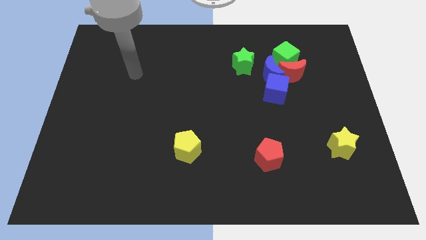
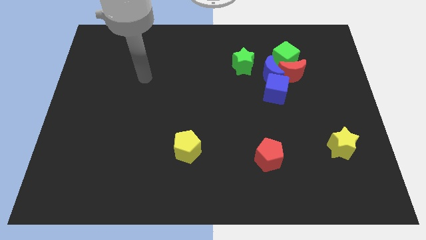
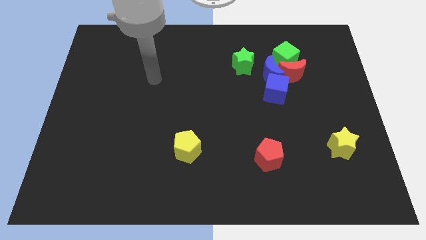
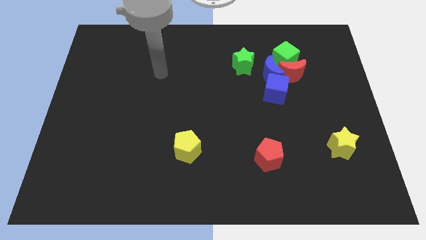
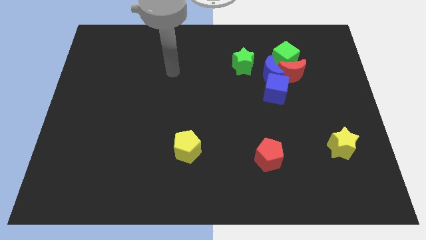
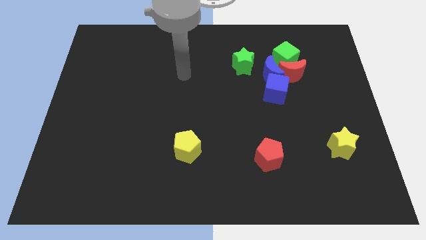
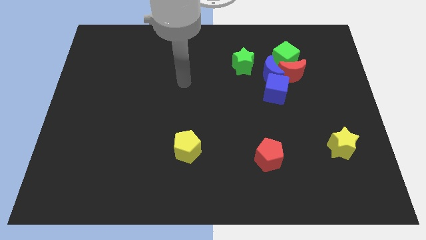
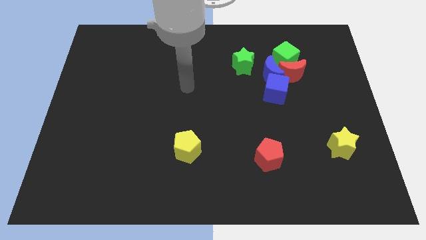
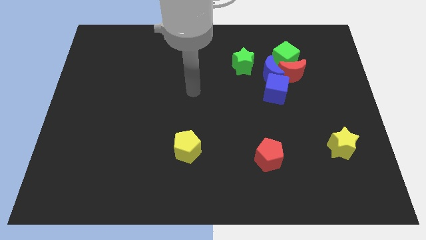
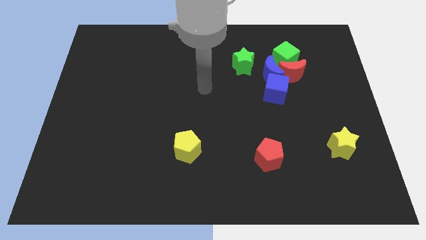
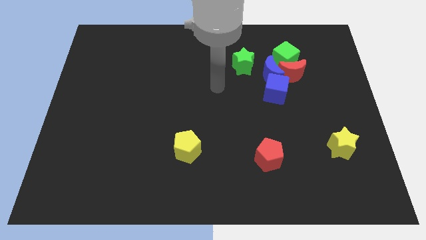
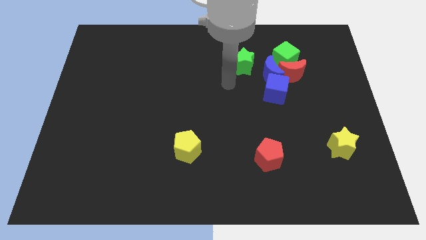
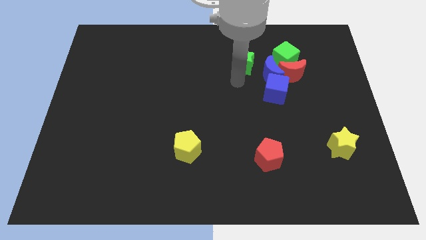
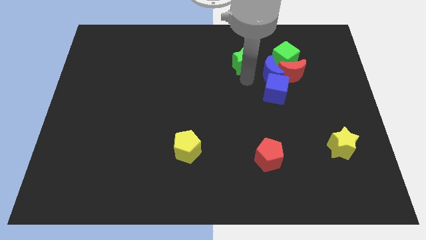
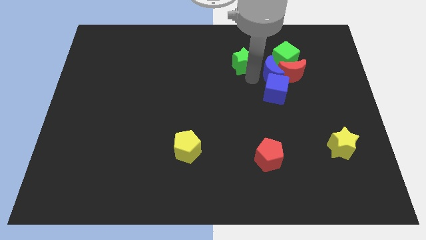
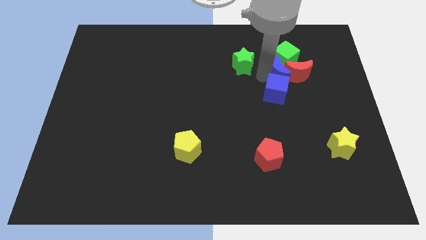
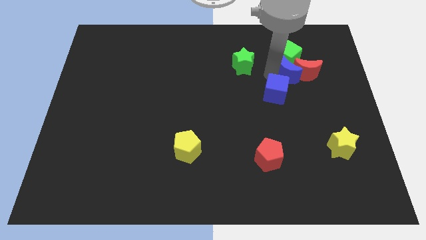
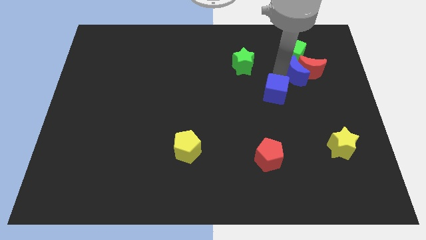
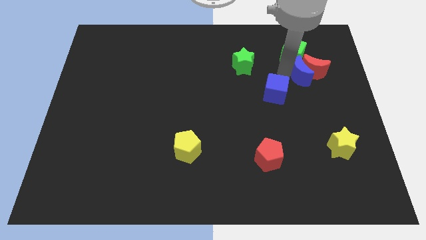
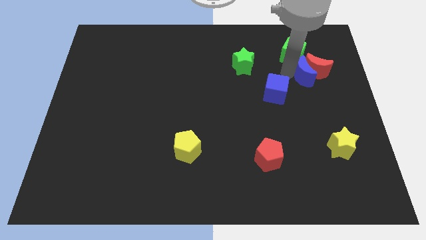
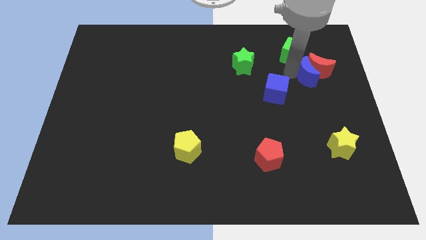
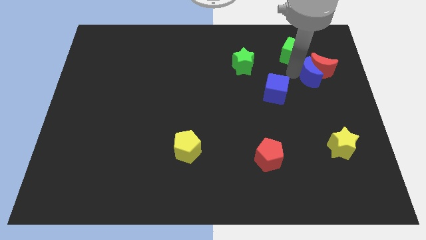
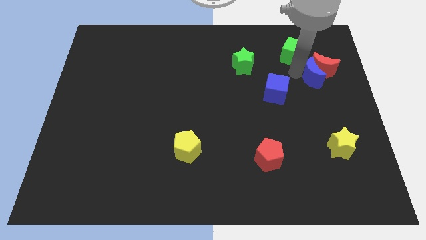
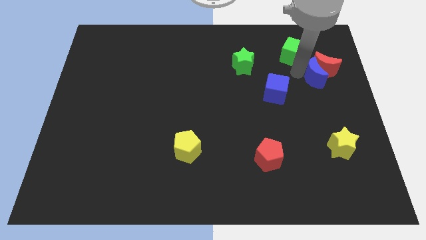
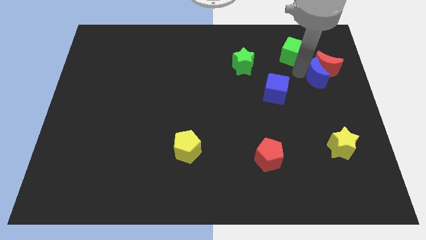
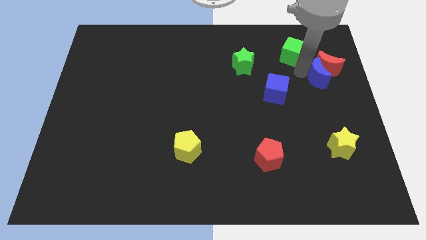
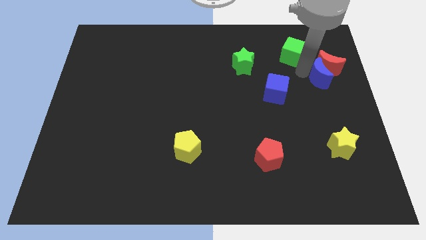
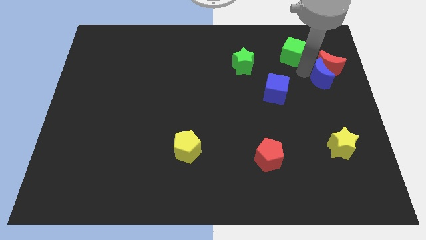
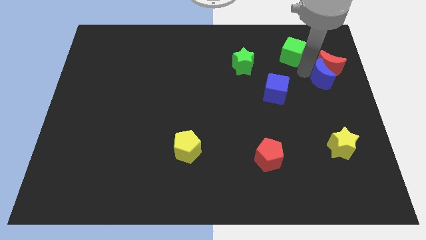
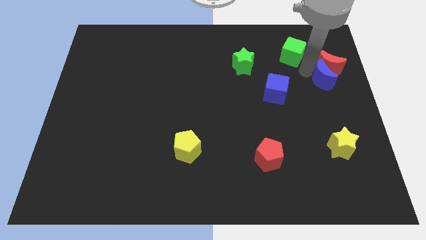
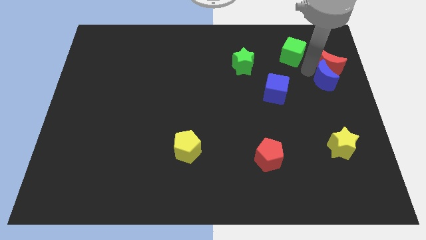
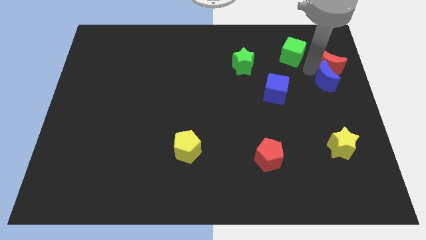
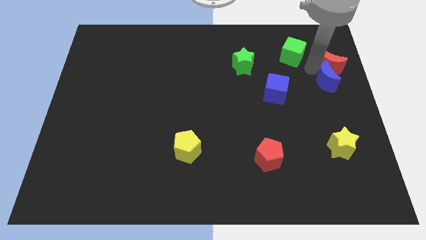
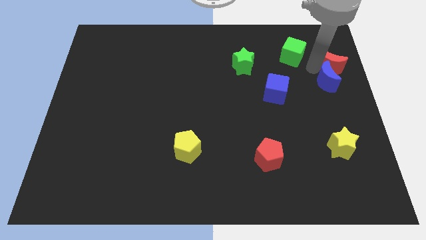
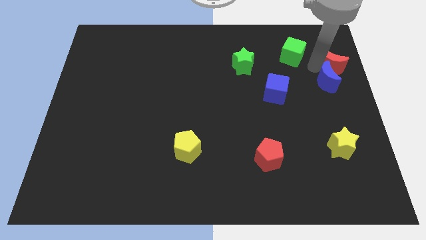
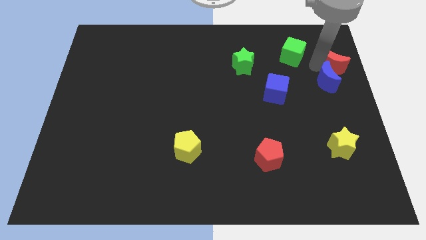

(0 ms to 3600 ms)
separate the red moon from the clump

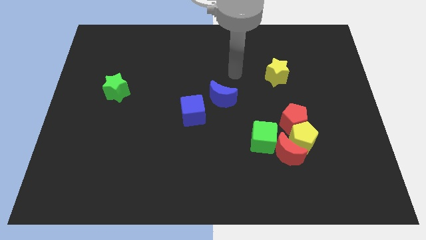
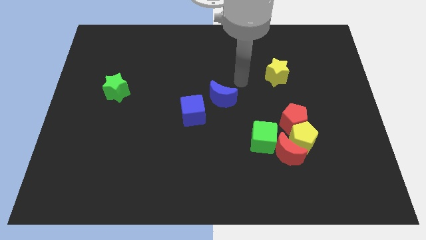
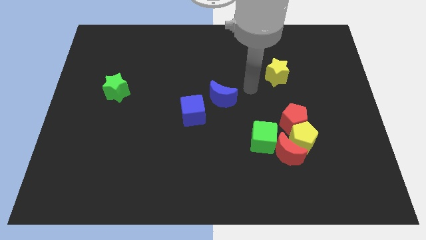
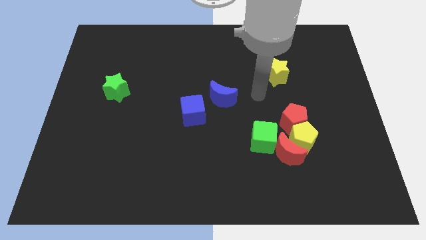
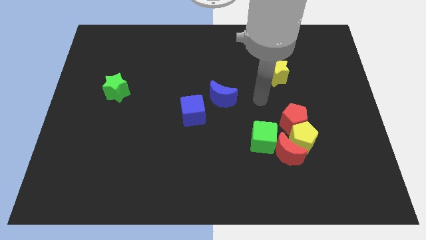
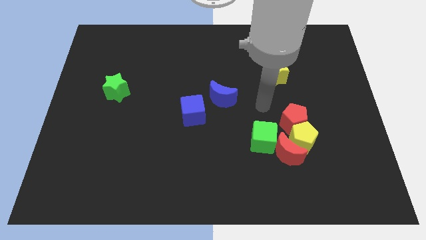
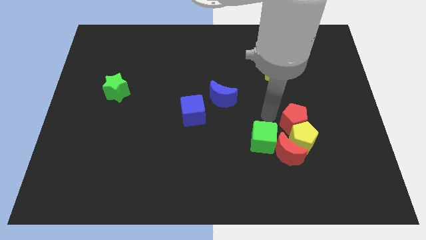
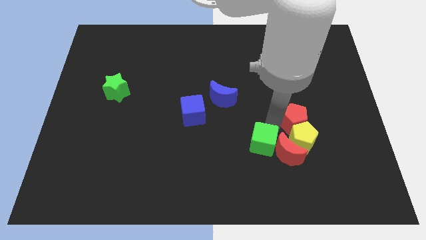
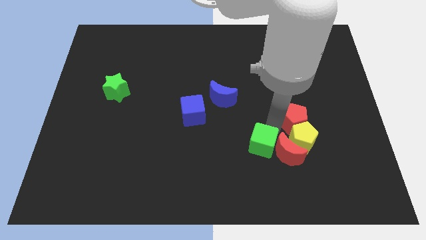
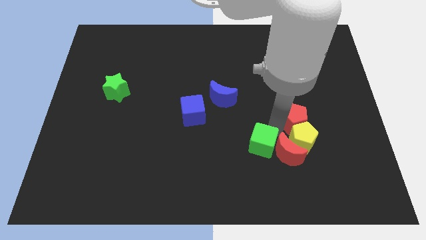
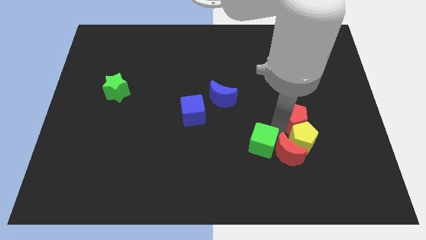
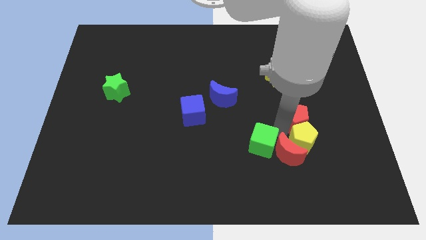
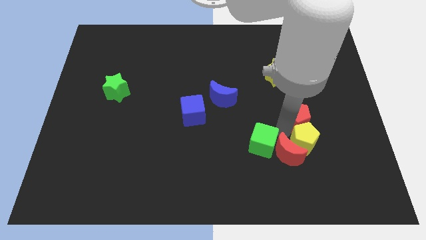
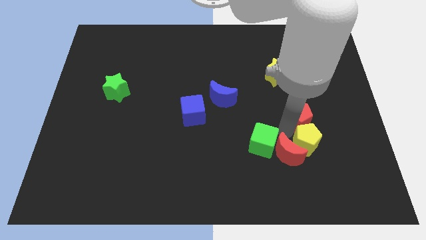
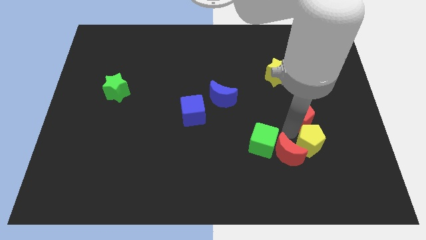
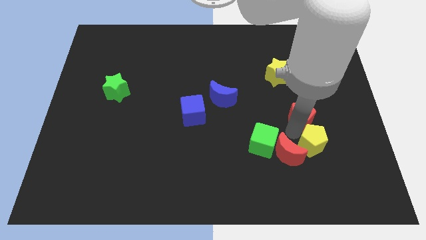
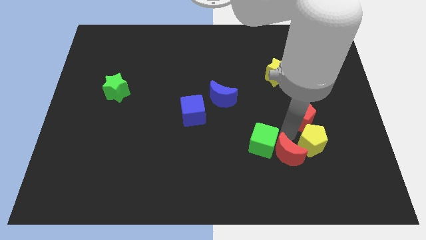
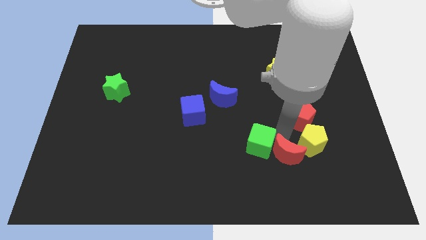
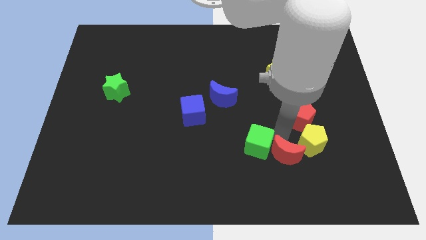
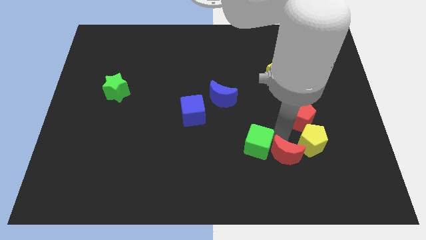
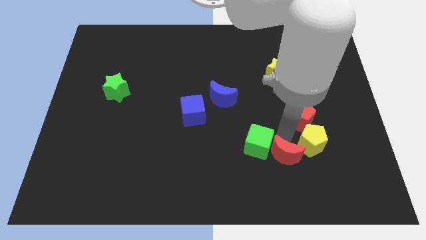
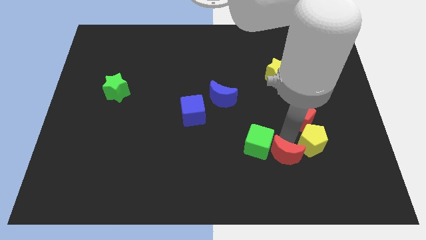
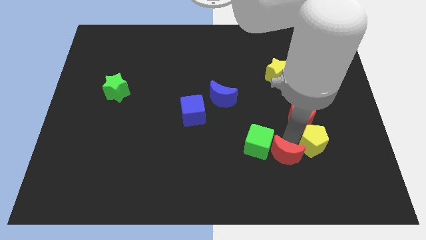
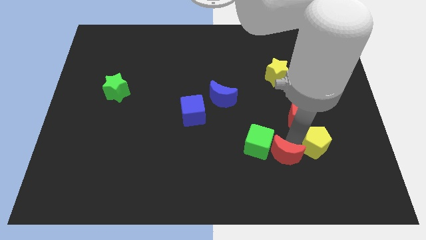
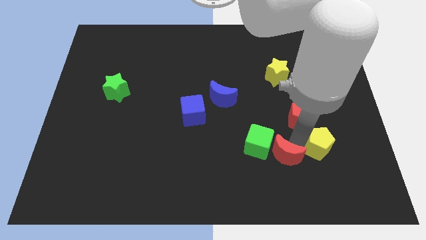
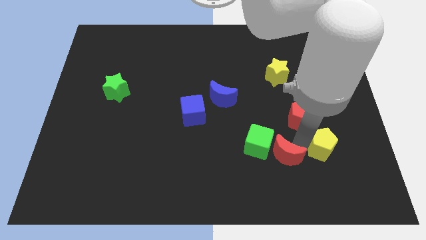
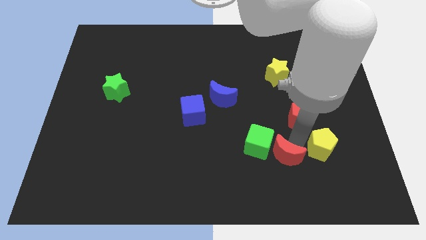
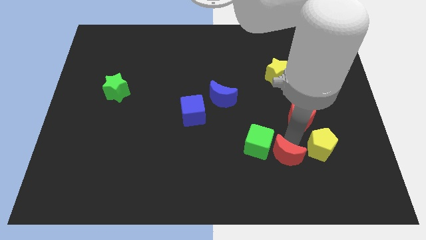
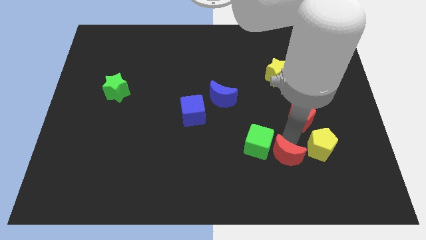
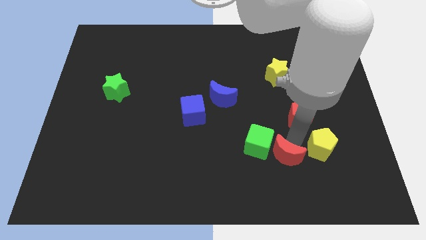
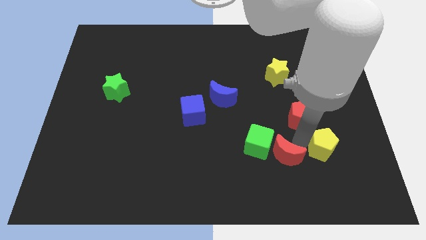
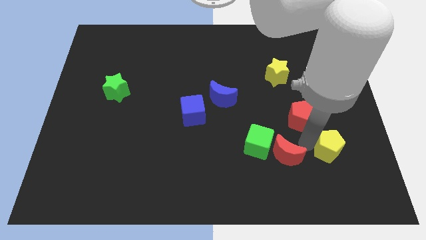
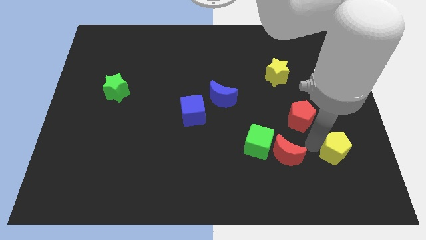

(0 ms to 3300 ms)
separate the yellow pentagon from the group of blocks

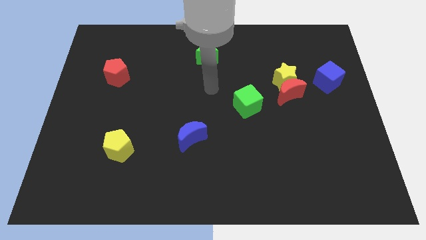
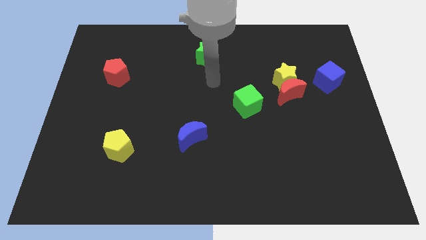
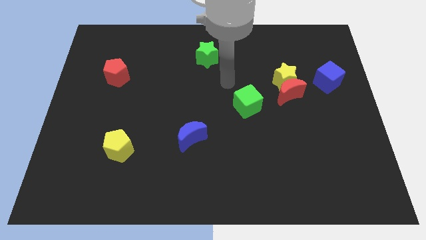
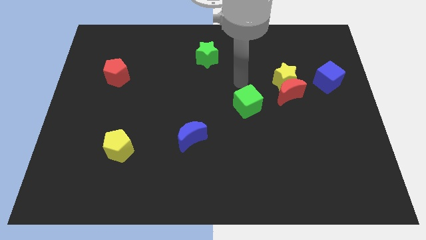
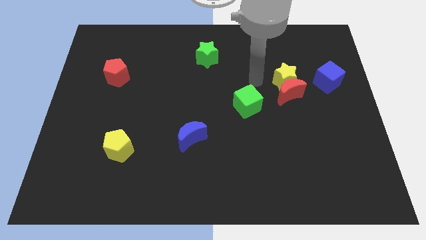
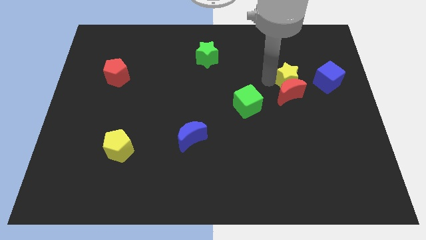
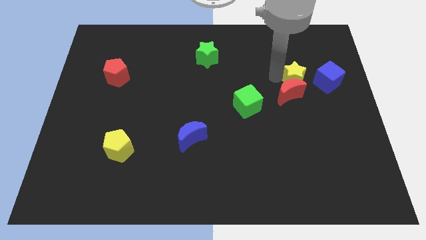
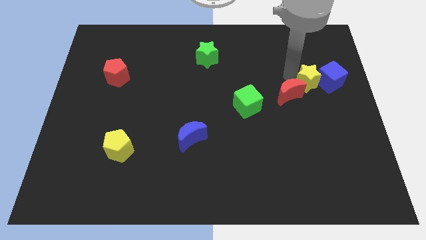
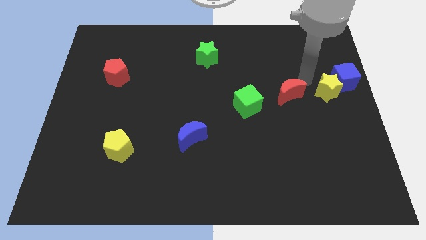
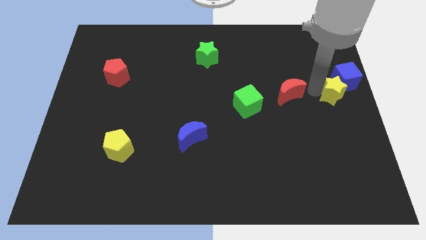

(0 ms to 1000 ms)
pull the red moon apart from the yellow star

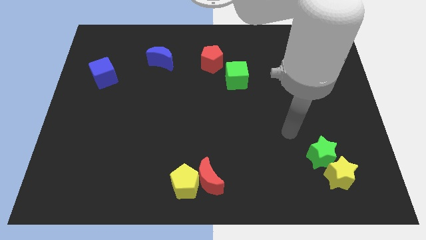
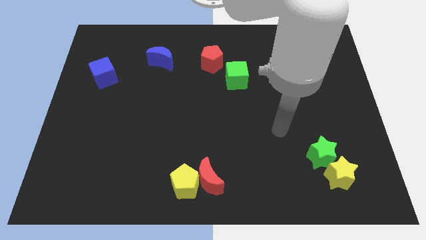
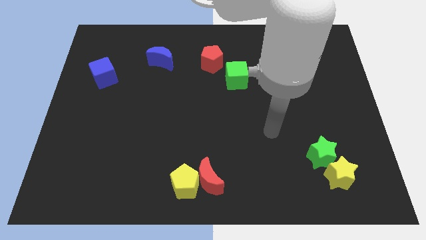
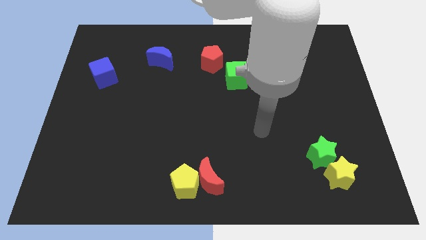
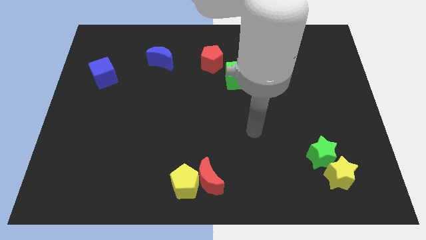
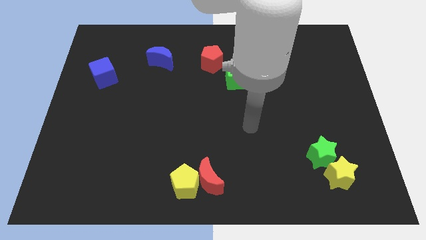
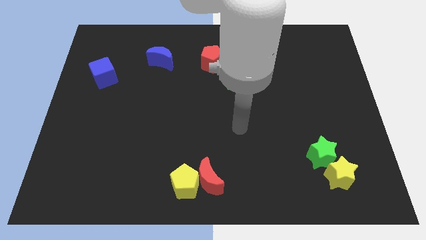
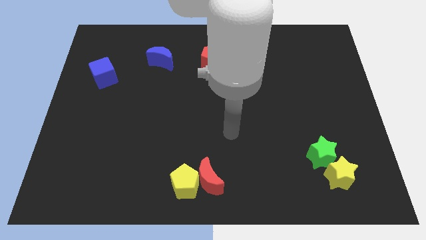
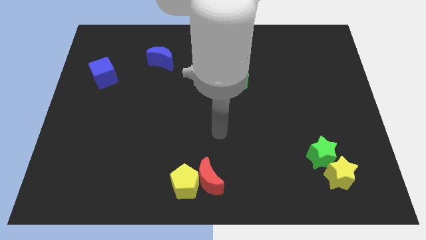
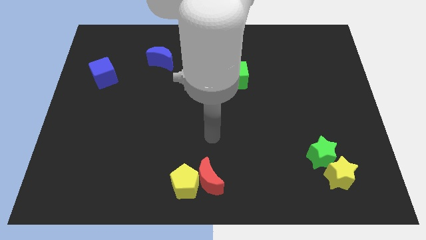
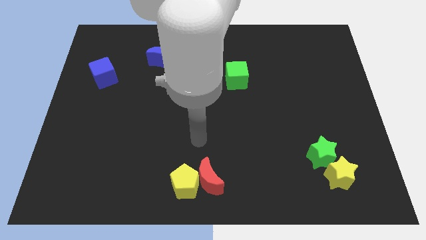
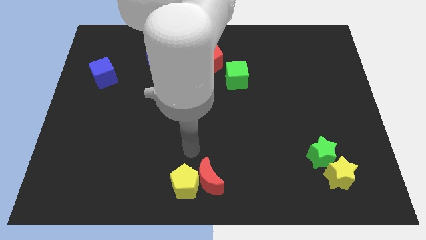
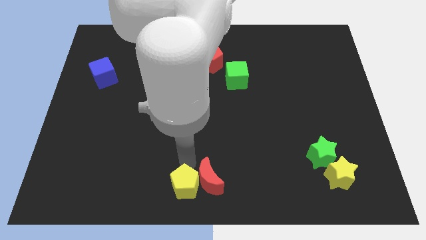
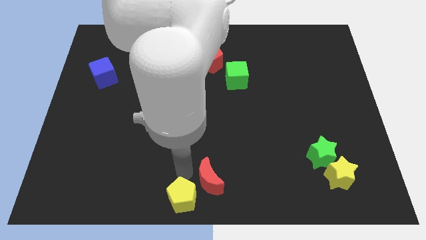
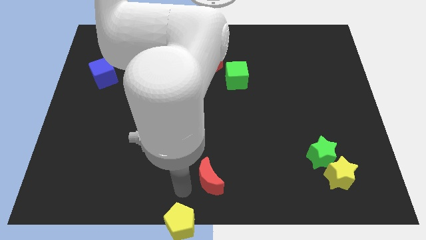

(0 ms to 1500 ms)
move the red moon away from the yellow pentagon
